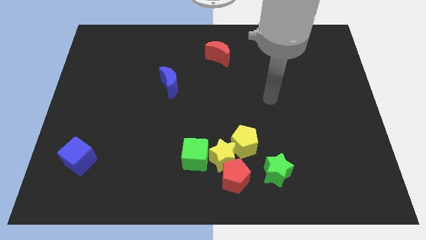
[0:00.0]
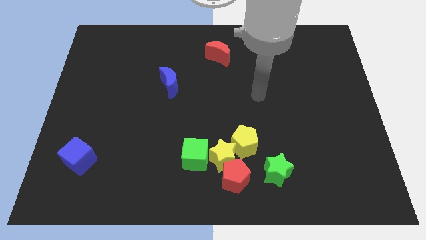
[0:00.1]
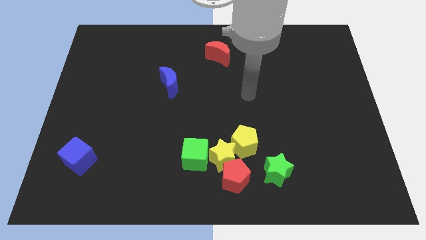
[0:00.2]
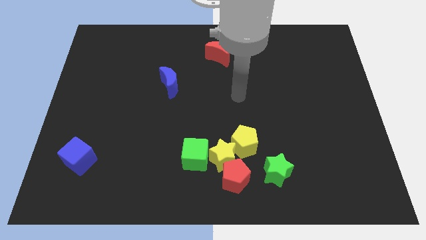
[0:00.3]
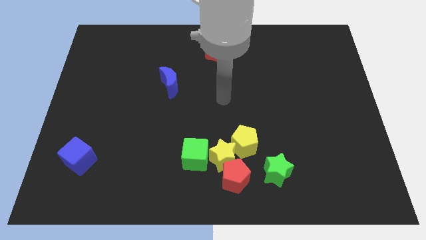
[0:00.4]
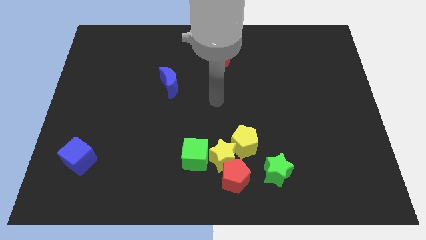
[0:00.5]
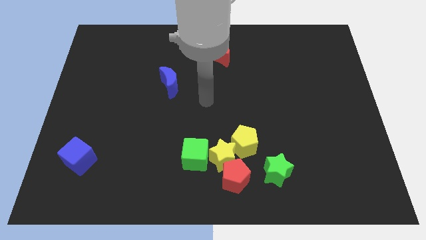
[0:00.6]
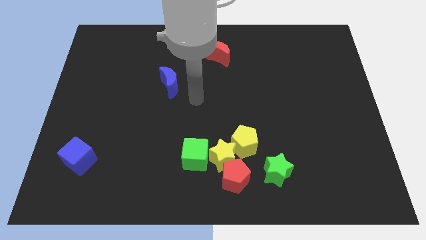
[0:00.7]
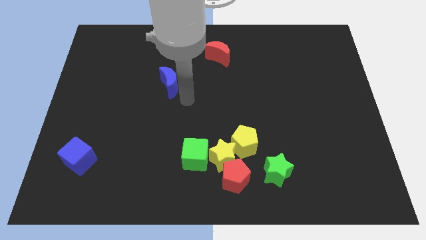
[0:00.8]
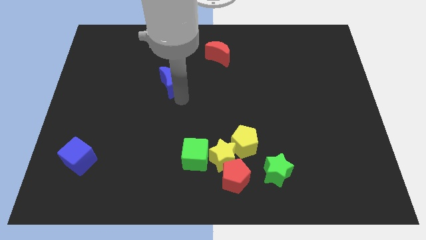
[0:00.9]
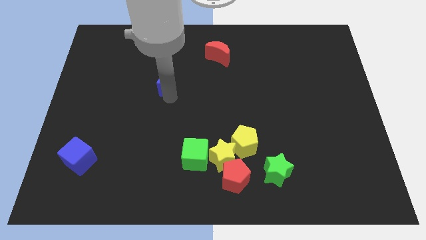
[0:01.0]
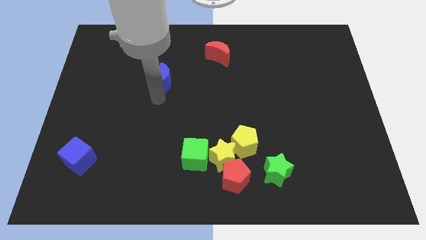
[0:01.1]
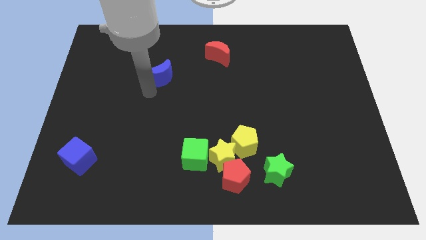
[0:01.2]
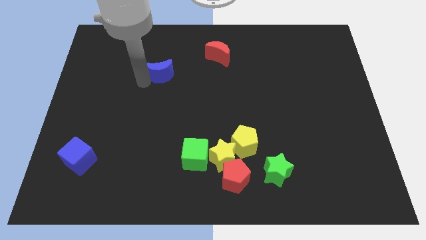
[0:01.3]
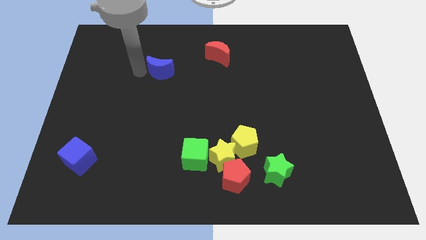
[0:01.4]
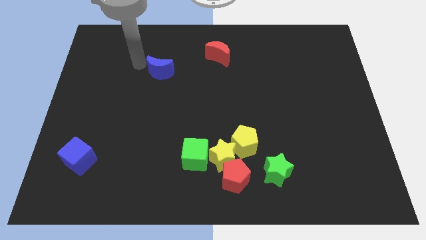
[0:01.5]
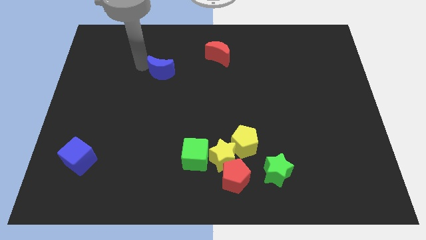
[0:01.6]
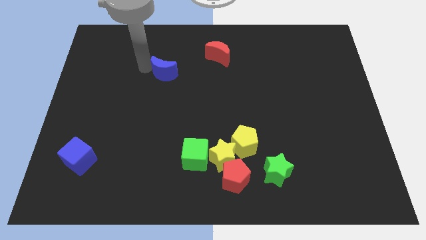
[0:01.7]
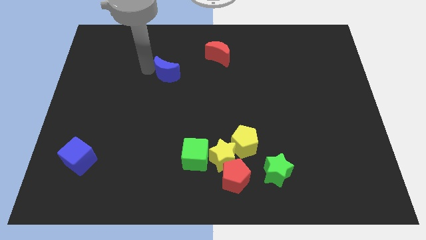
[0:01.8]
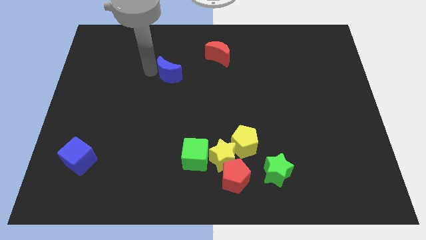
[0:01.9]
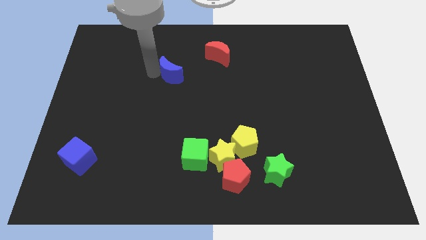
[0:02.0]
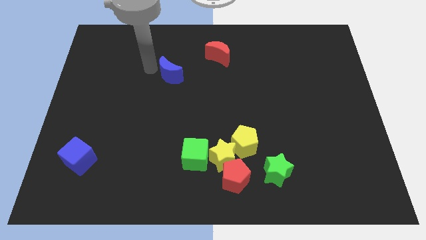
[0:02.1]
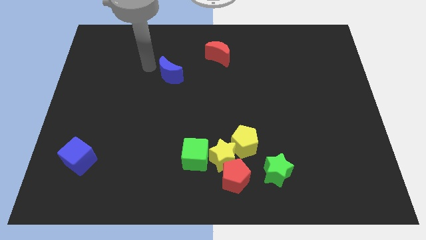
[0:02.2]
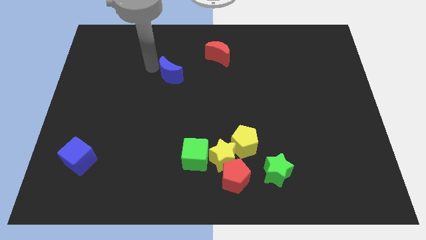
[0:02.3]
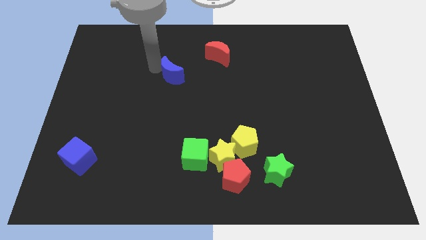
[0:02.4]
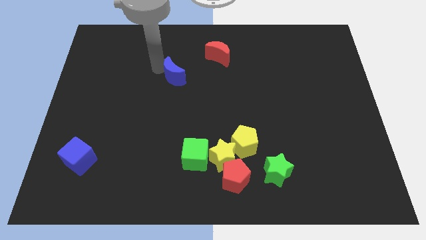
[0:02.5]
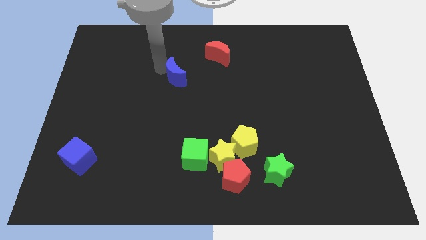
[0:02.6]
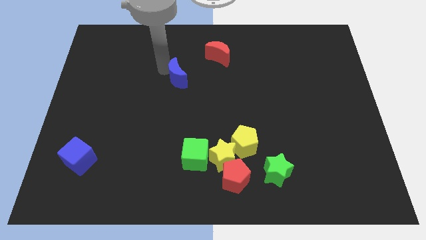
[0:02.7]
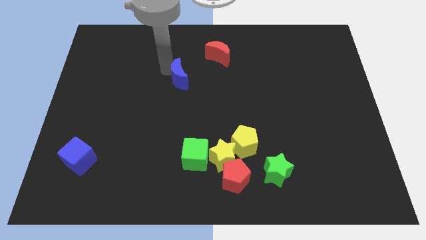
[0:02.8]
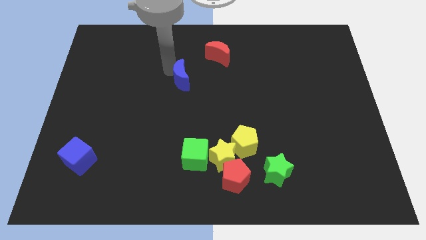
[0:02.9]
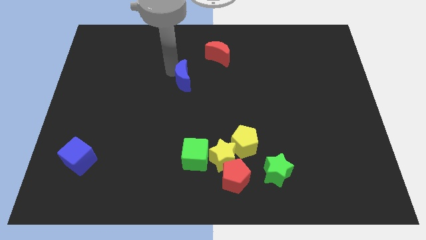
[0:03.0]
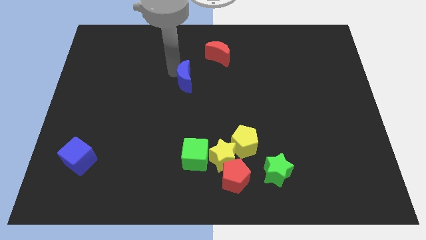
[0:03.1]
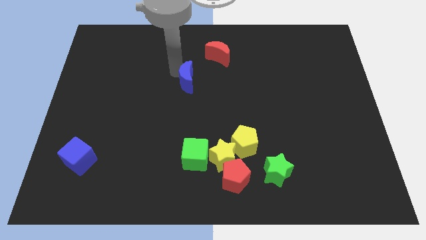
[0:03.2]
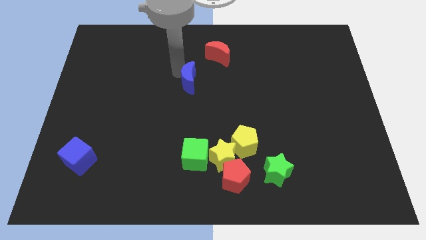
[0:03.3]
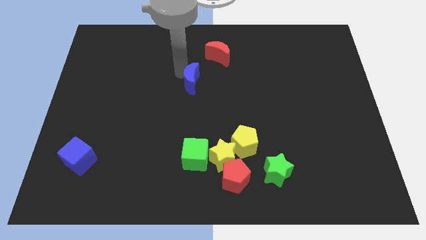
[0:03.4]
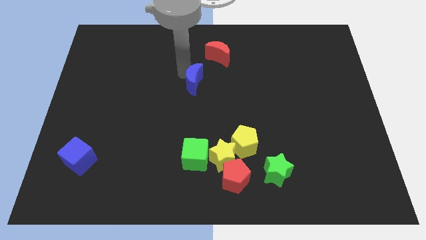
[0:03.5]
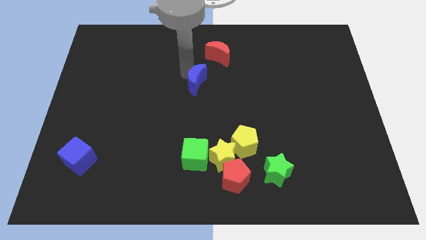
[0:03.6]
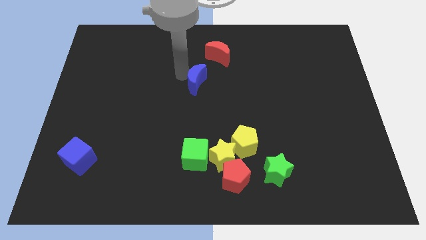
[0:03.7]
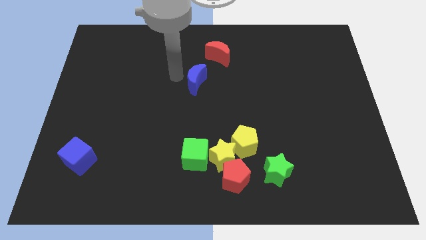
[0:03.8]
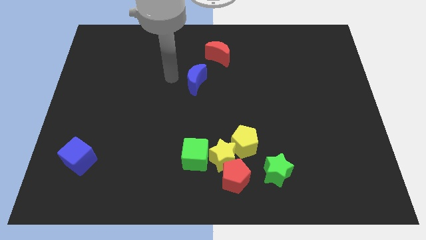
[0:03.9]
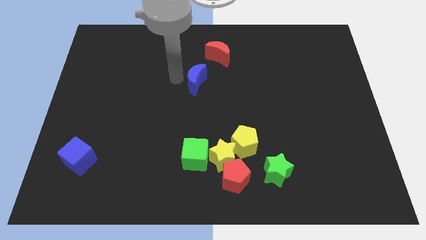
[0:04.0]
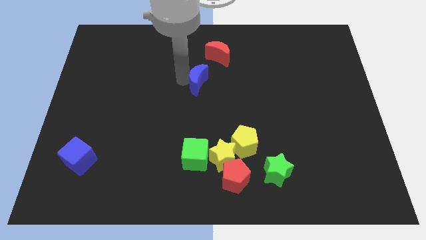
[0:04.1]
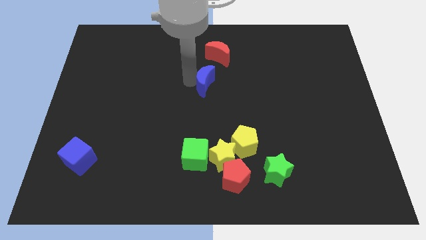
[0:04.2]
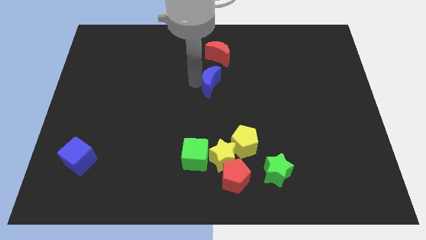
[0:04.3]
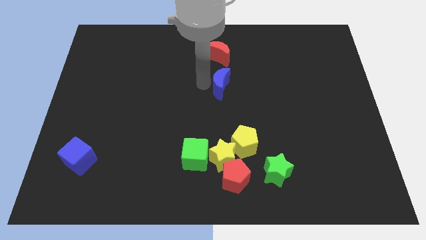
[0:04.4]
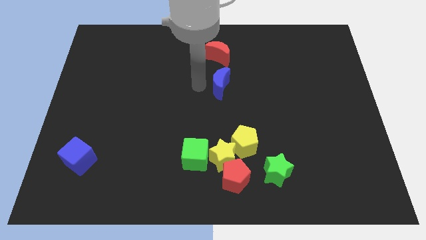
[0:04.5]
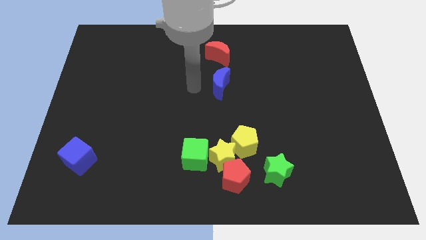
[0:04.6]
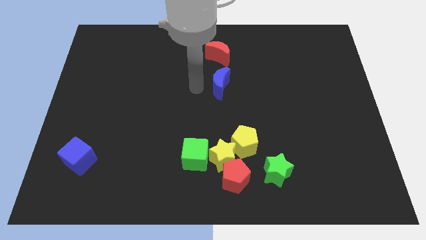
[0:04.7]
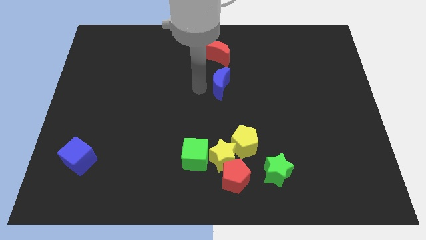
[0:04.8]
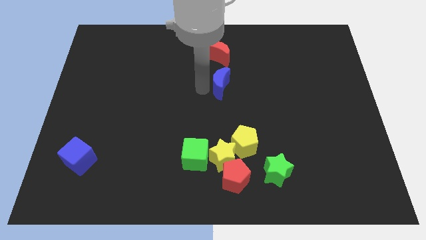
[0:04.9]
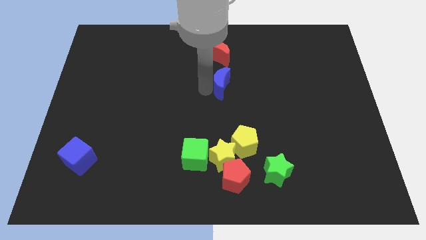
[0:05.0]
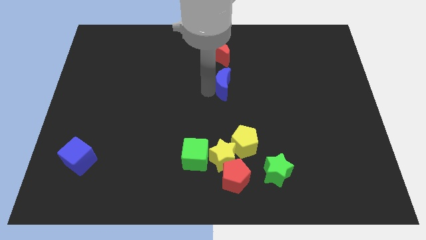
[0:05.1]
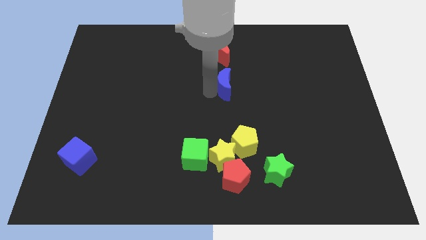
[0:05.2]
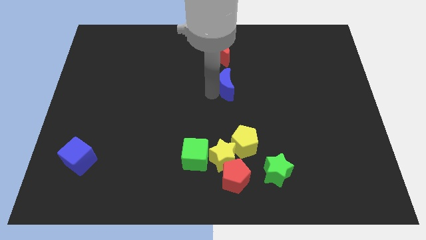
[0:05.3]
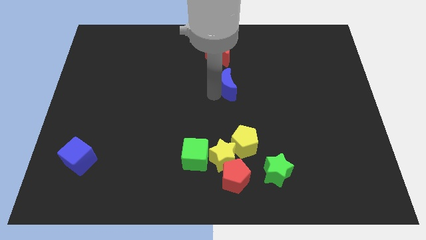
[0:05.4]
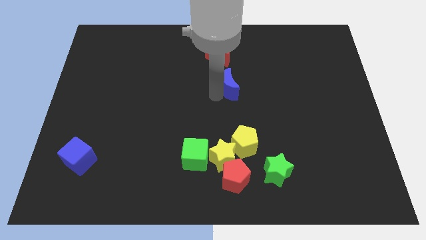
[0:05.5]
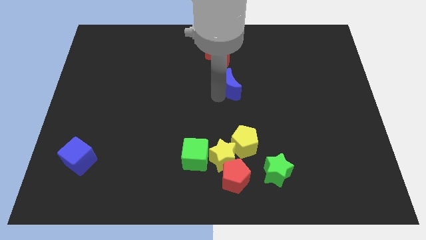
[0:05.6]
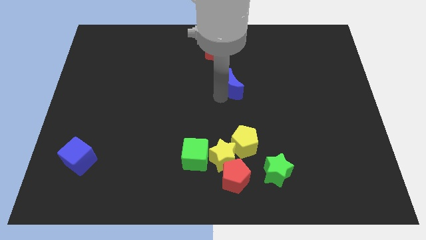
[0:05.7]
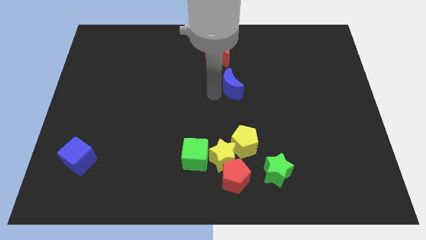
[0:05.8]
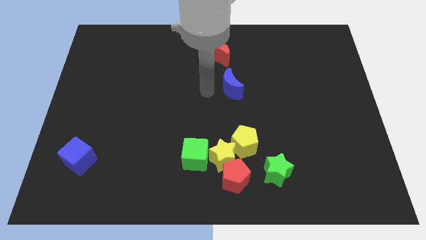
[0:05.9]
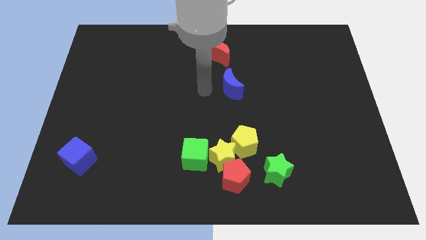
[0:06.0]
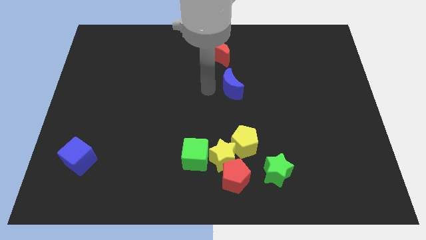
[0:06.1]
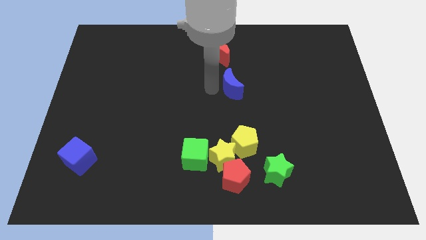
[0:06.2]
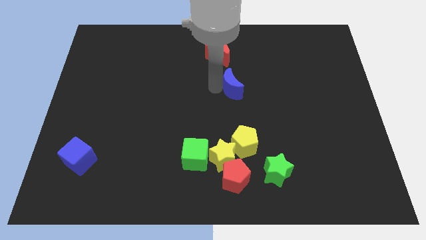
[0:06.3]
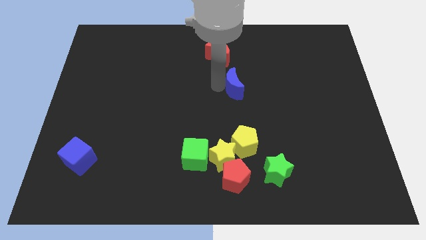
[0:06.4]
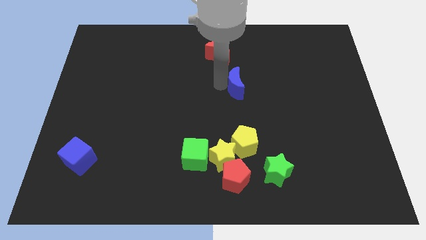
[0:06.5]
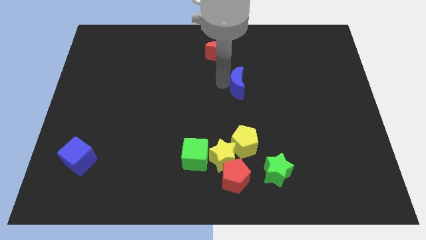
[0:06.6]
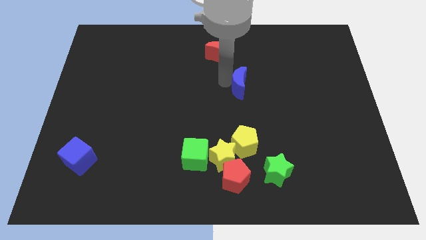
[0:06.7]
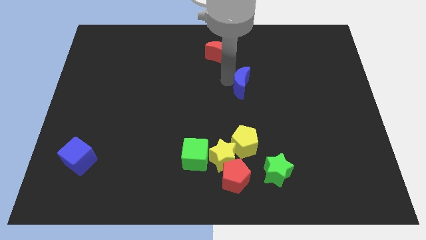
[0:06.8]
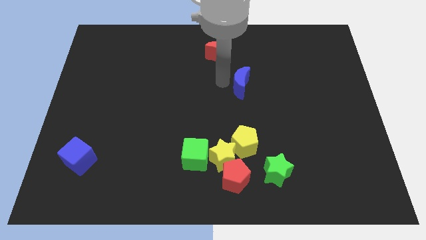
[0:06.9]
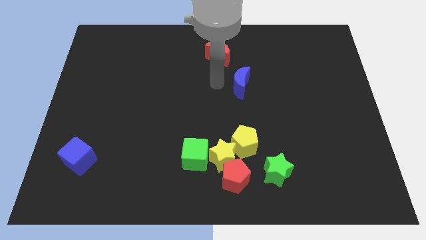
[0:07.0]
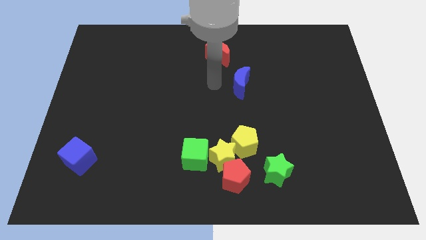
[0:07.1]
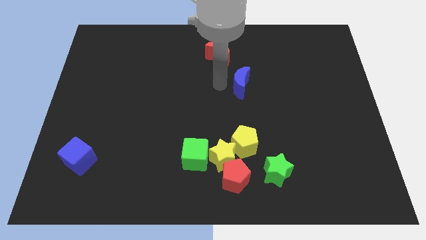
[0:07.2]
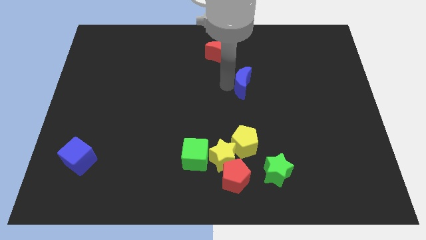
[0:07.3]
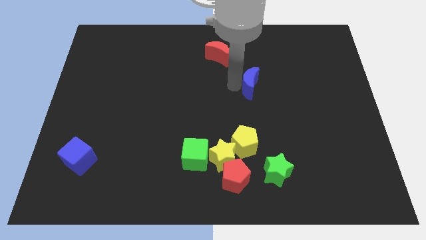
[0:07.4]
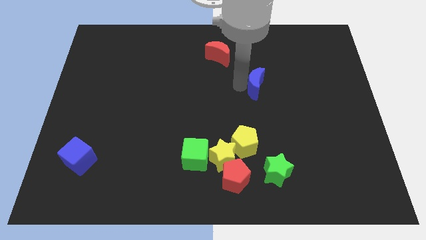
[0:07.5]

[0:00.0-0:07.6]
move the blue moon to the right

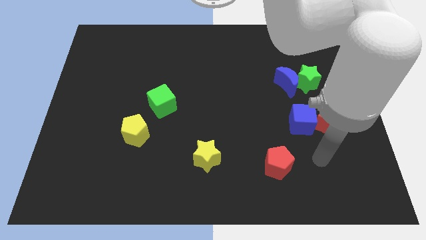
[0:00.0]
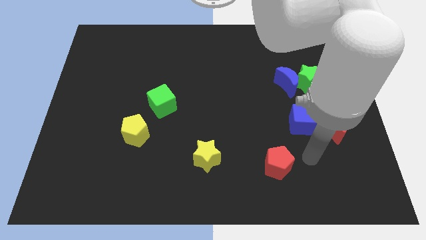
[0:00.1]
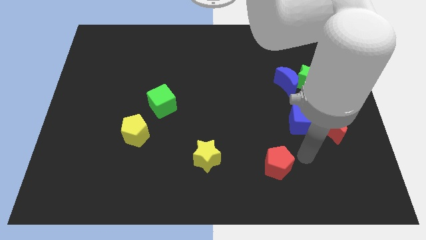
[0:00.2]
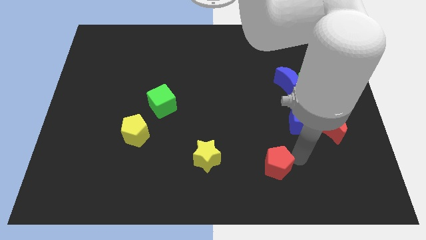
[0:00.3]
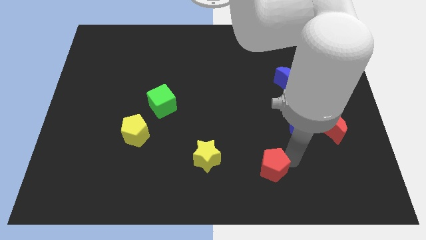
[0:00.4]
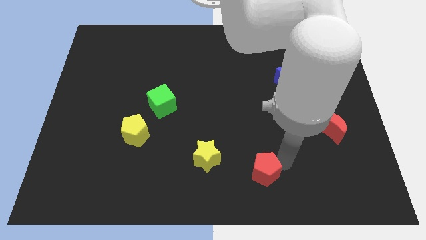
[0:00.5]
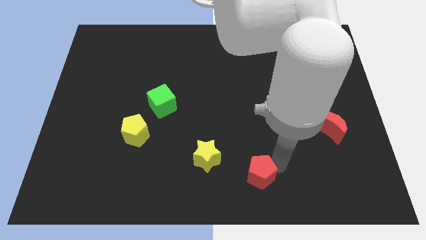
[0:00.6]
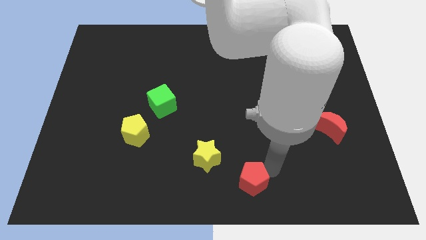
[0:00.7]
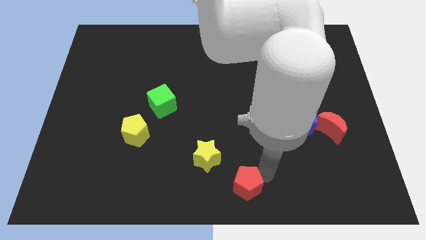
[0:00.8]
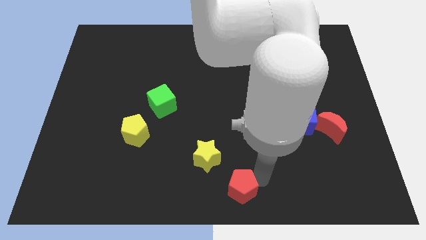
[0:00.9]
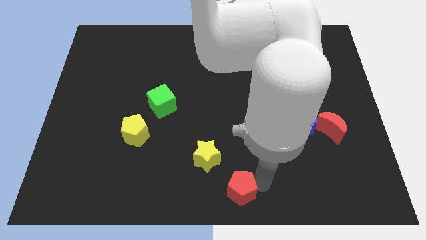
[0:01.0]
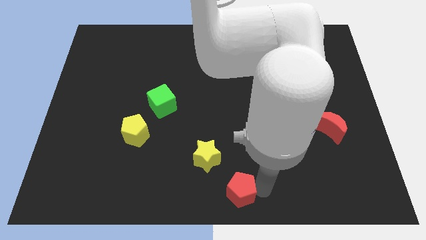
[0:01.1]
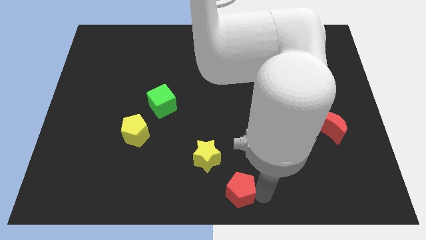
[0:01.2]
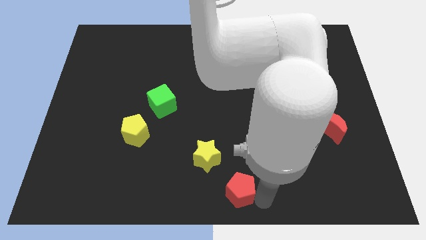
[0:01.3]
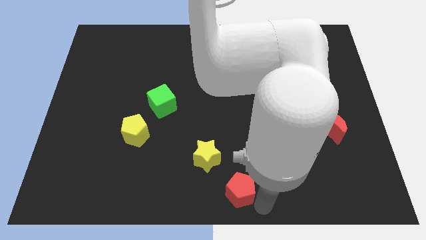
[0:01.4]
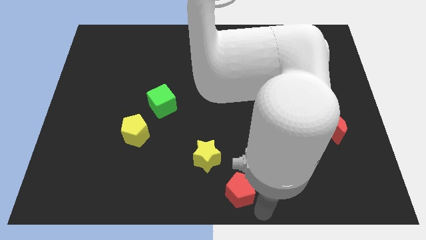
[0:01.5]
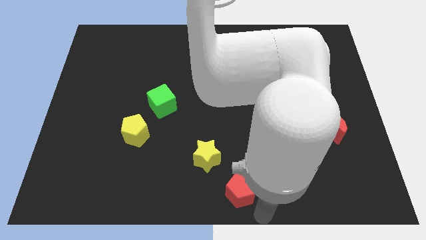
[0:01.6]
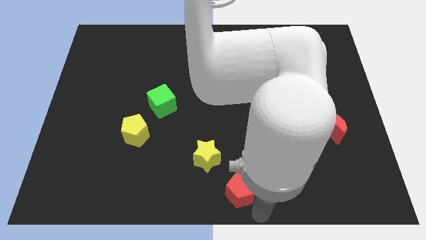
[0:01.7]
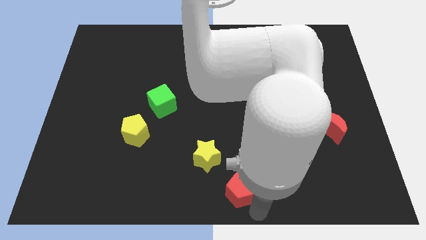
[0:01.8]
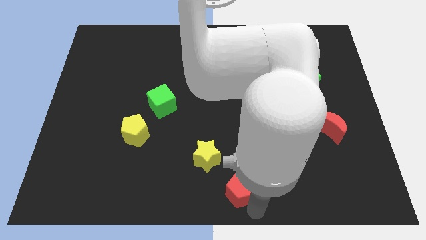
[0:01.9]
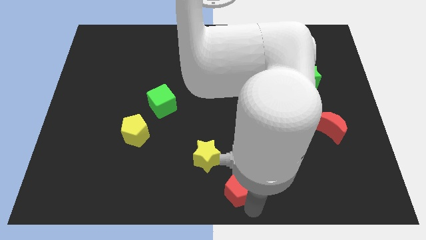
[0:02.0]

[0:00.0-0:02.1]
move the red pentagon to the left a bit
